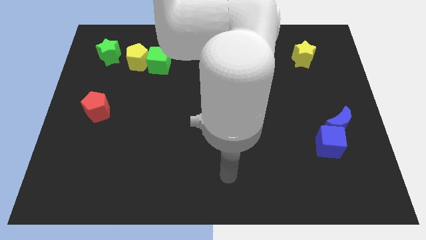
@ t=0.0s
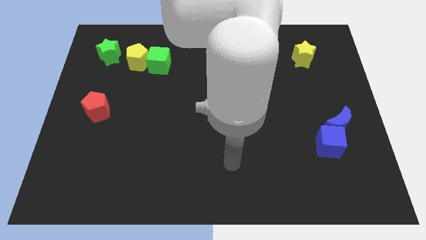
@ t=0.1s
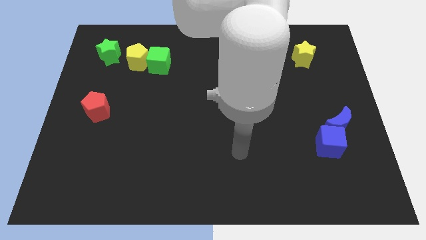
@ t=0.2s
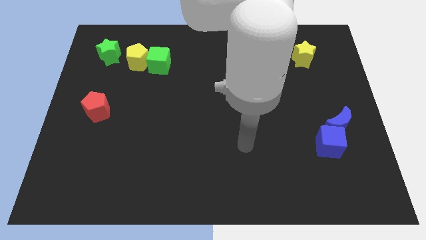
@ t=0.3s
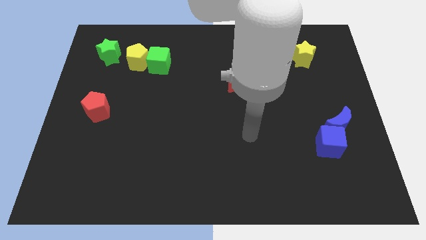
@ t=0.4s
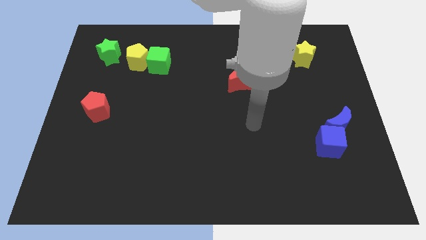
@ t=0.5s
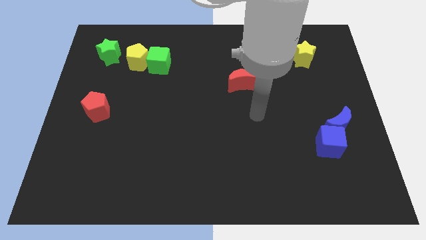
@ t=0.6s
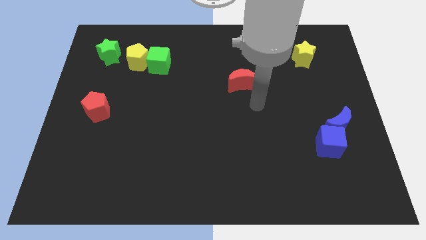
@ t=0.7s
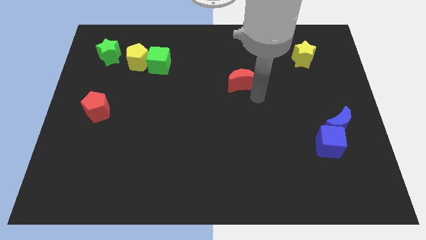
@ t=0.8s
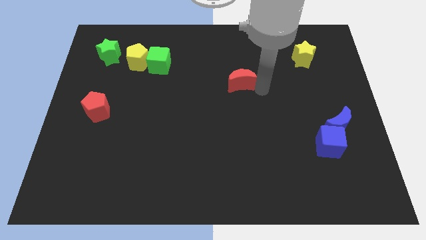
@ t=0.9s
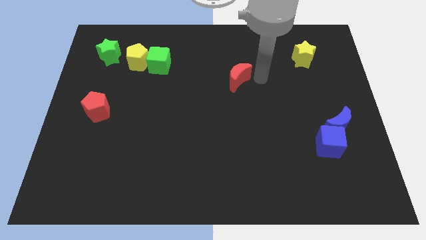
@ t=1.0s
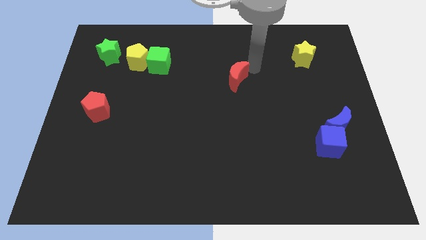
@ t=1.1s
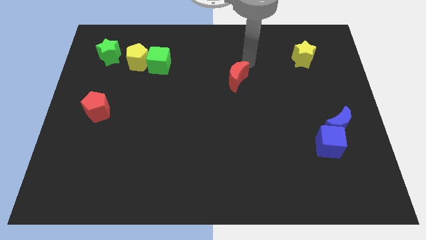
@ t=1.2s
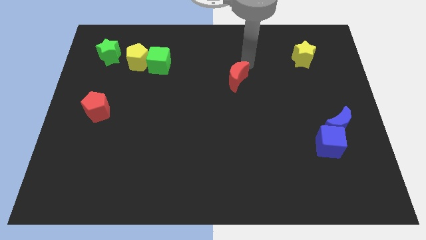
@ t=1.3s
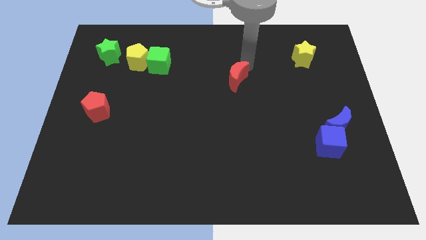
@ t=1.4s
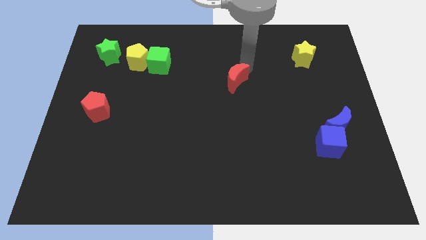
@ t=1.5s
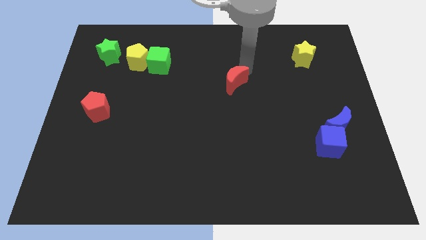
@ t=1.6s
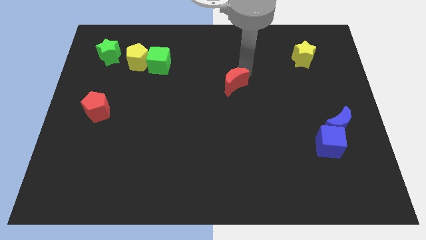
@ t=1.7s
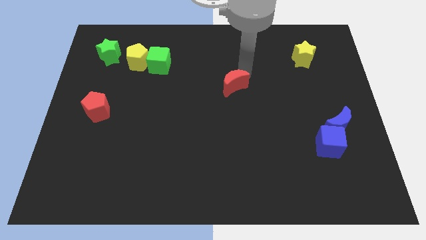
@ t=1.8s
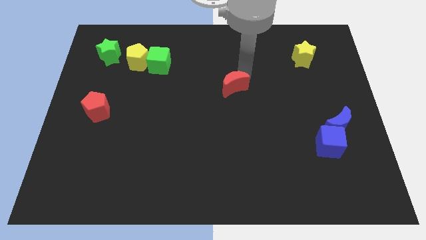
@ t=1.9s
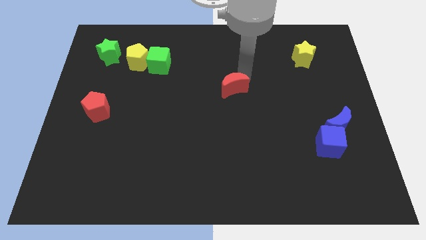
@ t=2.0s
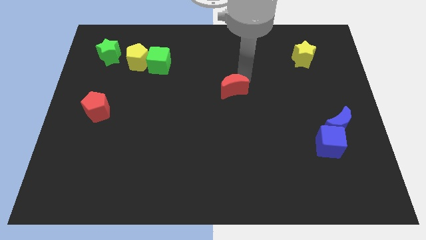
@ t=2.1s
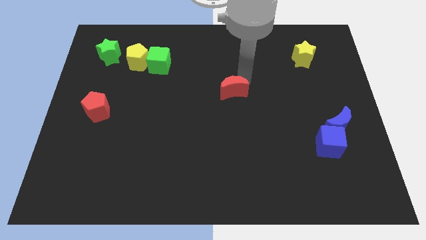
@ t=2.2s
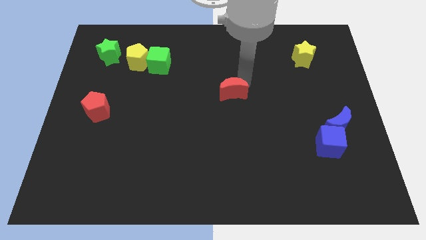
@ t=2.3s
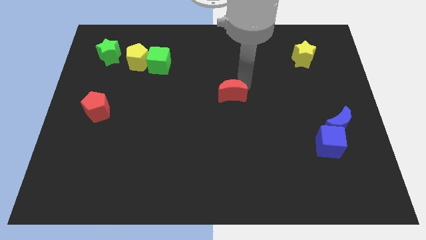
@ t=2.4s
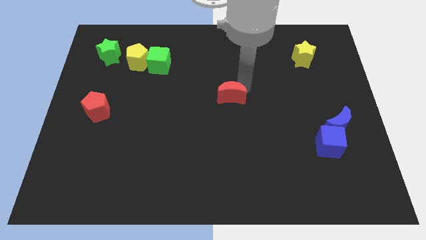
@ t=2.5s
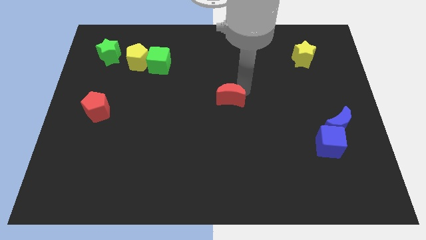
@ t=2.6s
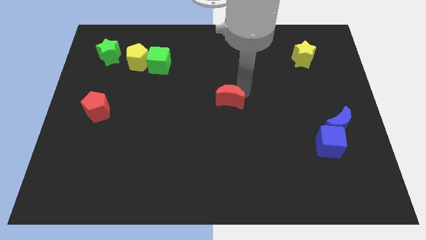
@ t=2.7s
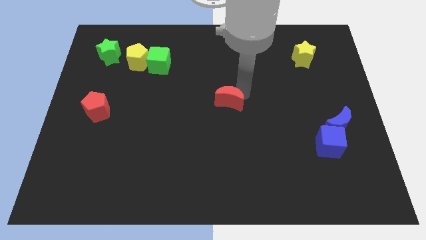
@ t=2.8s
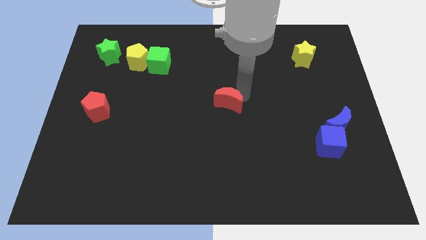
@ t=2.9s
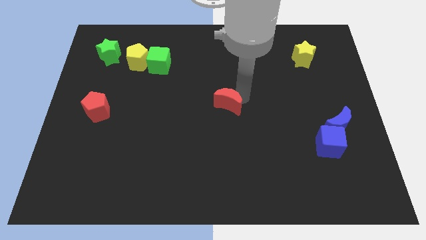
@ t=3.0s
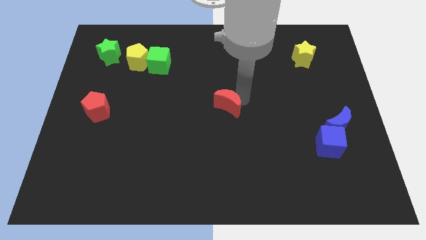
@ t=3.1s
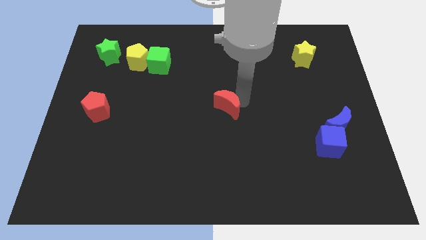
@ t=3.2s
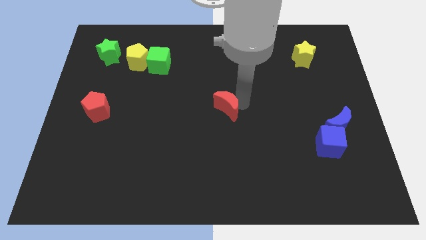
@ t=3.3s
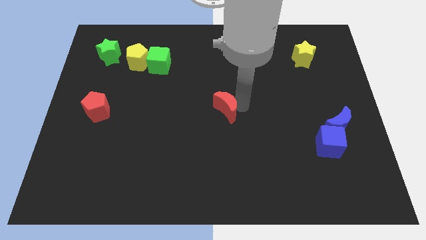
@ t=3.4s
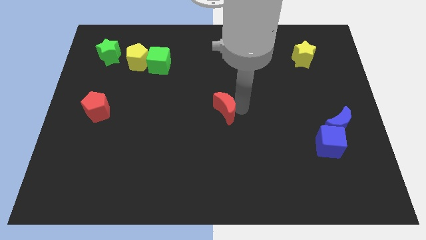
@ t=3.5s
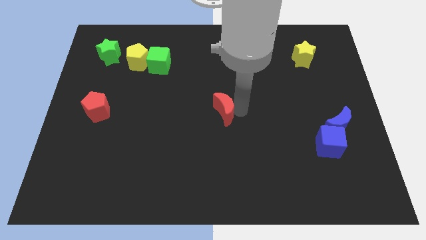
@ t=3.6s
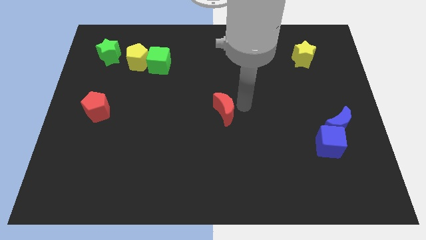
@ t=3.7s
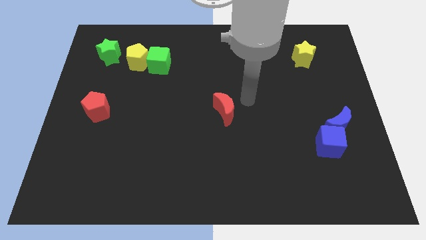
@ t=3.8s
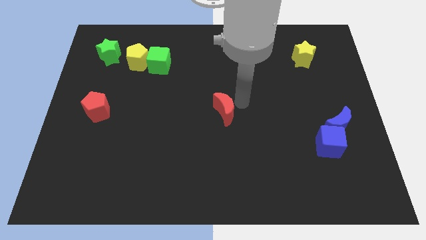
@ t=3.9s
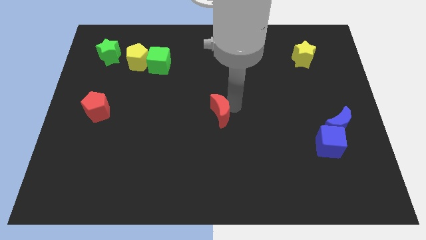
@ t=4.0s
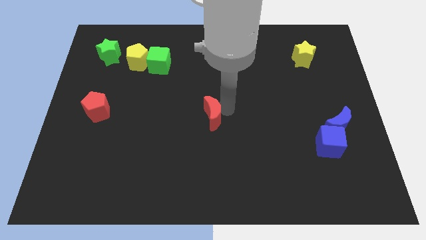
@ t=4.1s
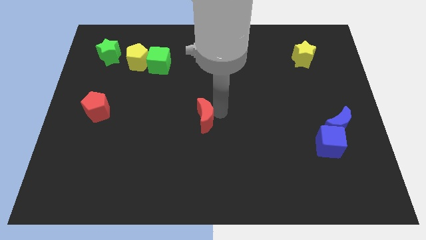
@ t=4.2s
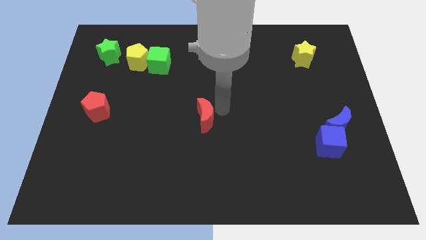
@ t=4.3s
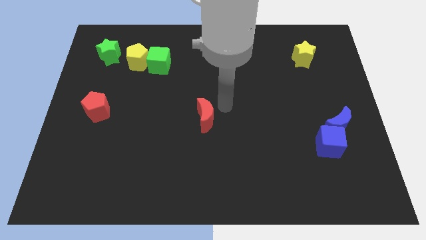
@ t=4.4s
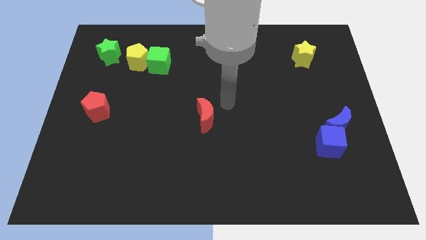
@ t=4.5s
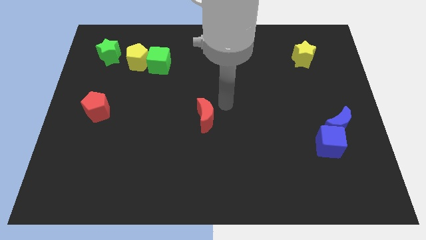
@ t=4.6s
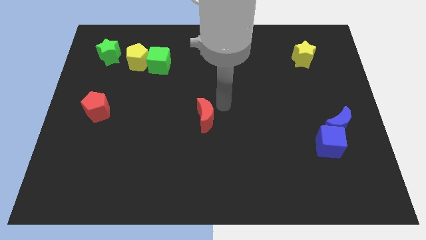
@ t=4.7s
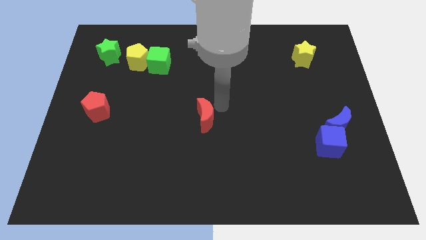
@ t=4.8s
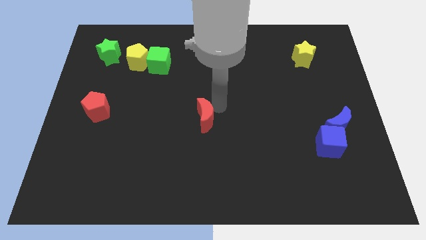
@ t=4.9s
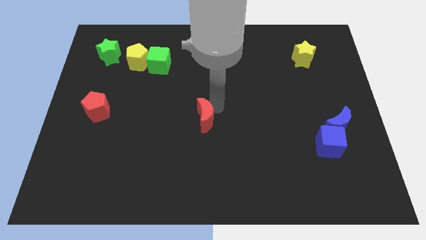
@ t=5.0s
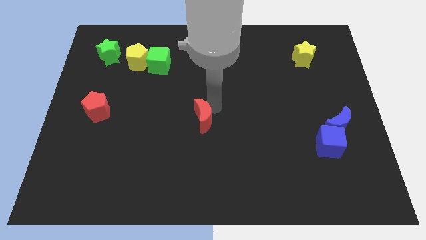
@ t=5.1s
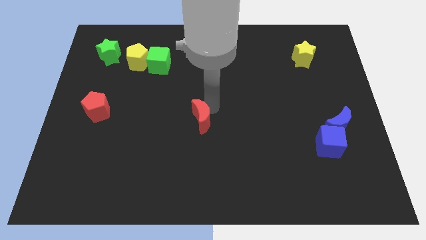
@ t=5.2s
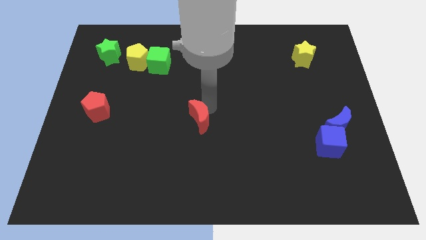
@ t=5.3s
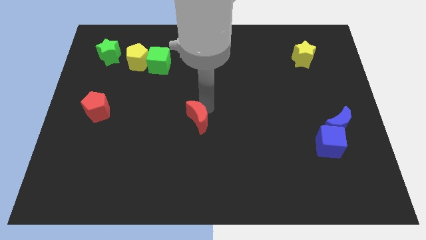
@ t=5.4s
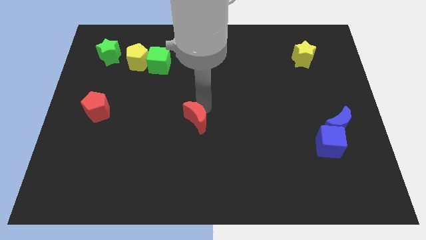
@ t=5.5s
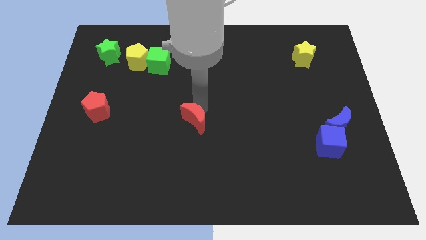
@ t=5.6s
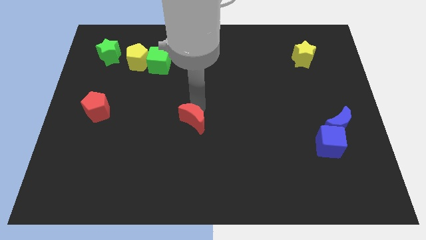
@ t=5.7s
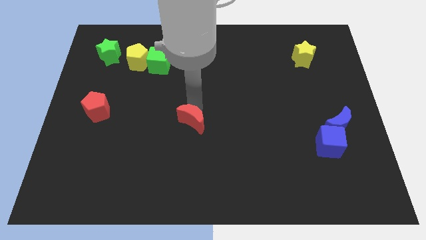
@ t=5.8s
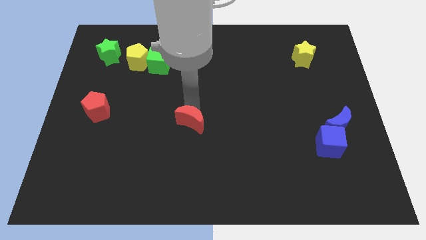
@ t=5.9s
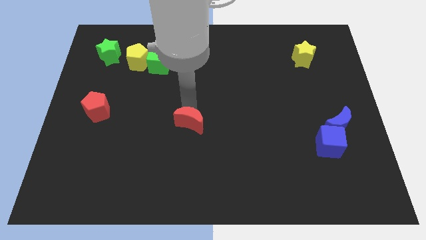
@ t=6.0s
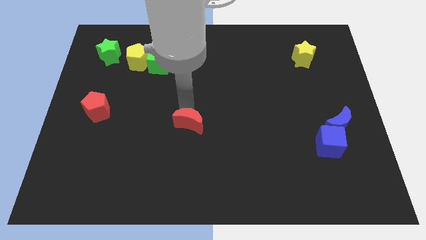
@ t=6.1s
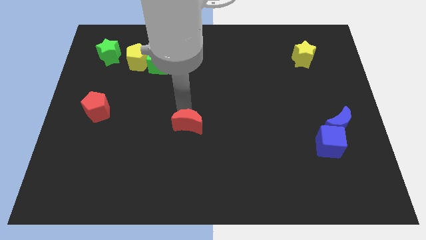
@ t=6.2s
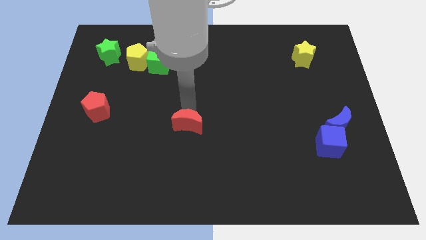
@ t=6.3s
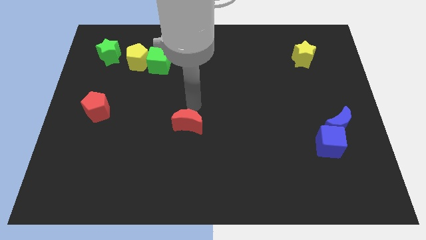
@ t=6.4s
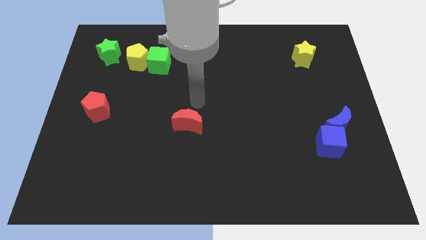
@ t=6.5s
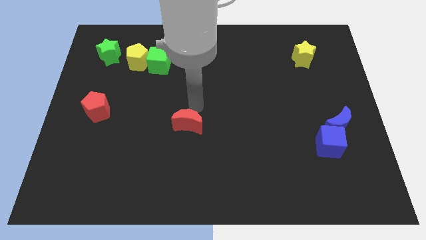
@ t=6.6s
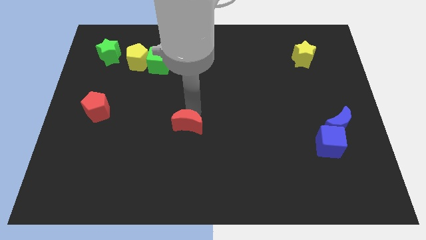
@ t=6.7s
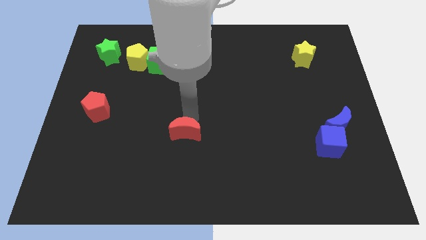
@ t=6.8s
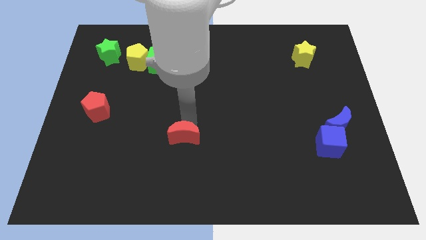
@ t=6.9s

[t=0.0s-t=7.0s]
push the red moon down and then to the left

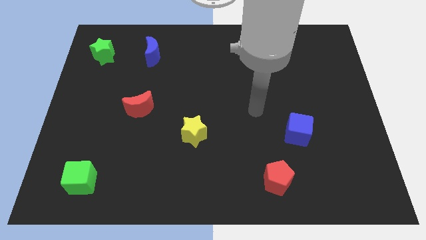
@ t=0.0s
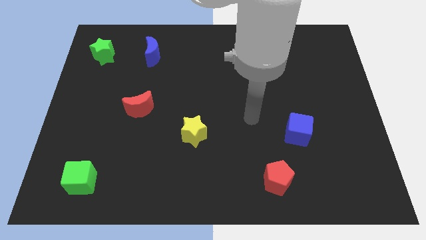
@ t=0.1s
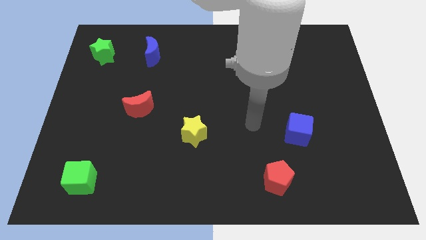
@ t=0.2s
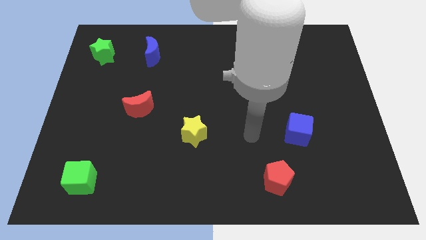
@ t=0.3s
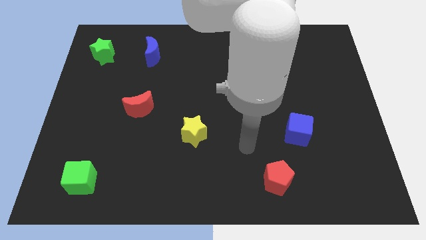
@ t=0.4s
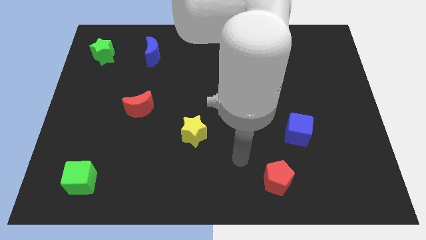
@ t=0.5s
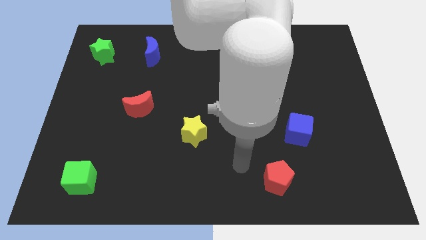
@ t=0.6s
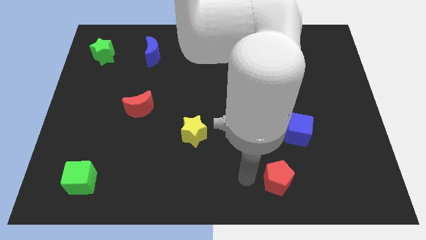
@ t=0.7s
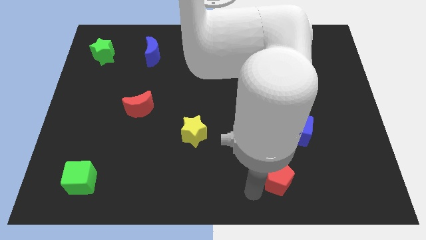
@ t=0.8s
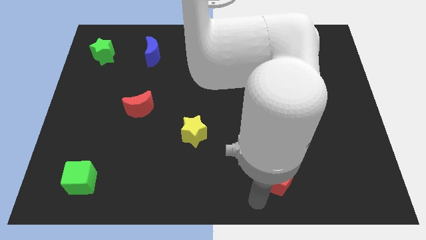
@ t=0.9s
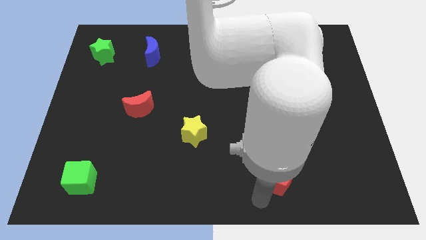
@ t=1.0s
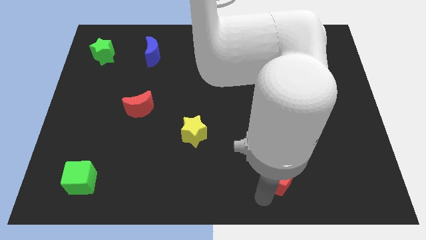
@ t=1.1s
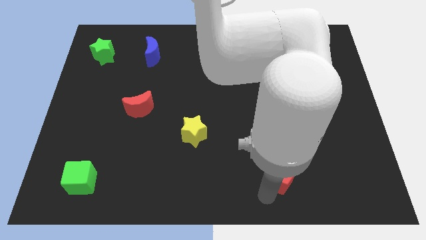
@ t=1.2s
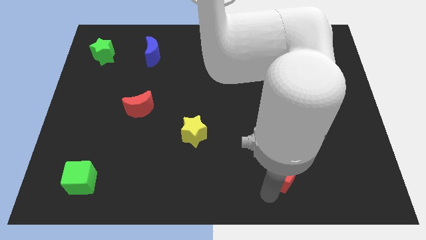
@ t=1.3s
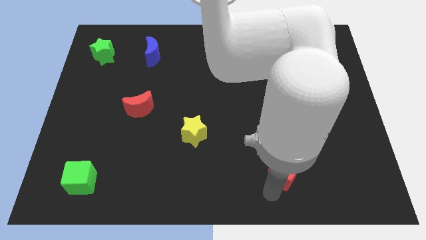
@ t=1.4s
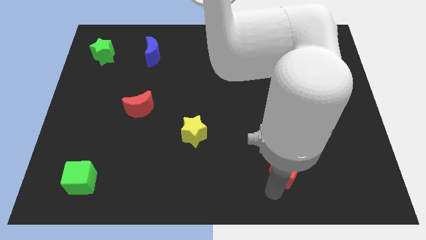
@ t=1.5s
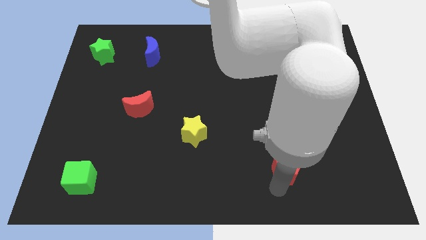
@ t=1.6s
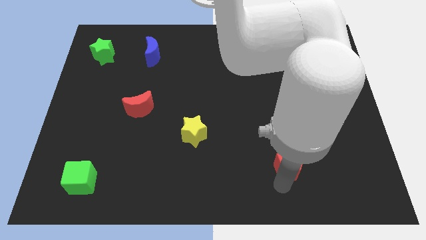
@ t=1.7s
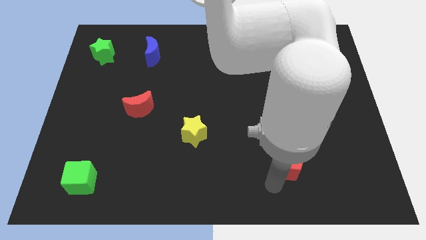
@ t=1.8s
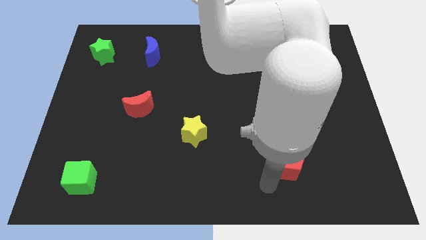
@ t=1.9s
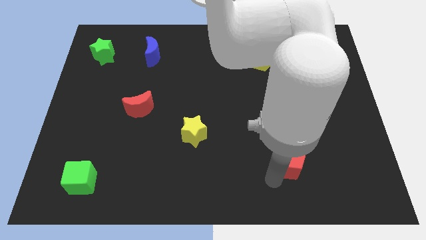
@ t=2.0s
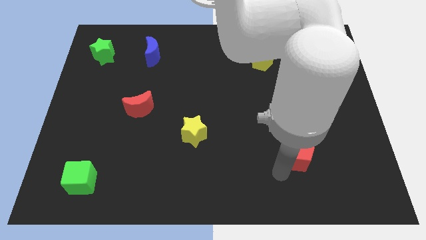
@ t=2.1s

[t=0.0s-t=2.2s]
slightly move the red pentagon diagonally up and right
